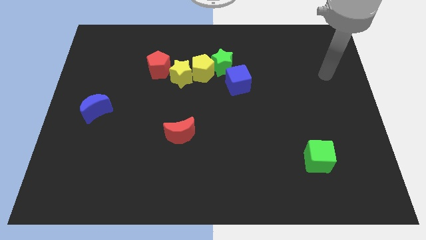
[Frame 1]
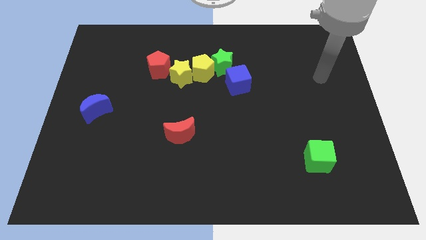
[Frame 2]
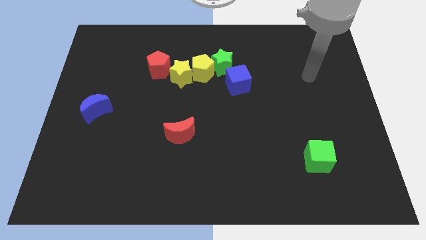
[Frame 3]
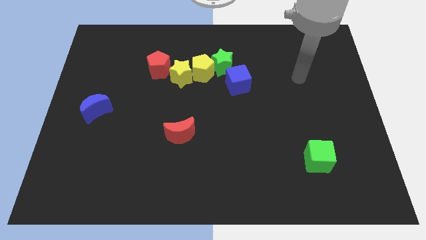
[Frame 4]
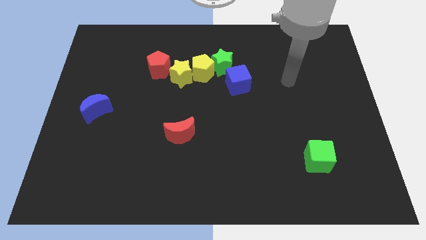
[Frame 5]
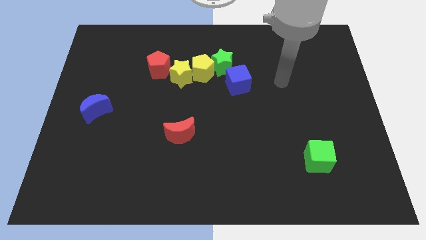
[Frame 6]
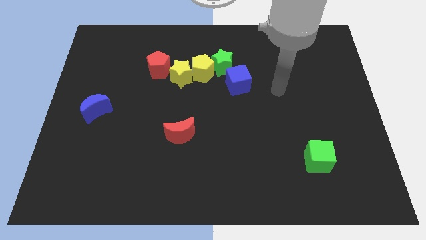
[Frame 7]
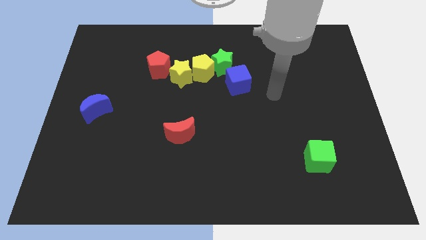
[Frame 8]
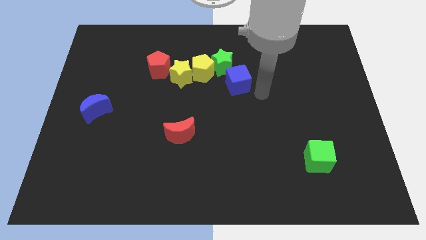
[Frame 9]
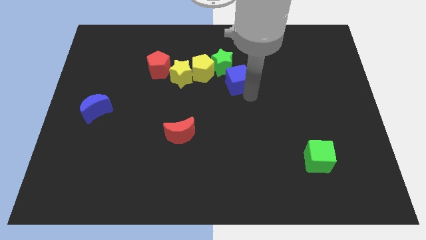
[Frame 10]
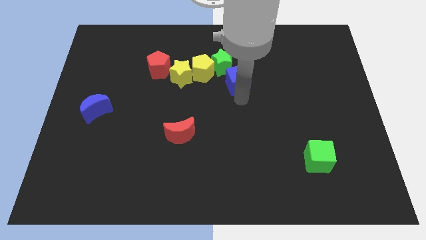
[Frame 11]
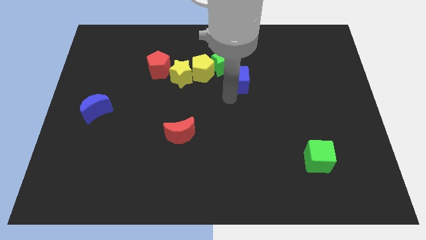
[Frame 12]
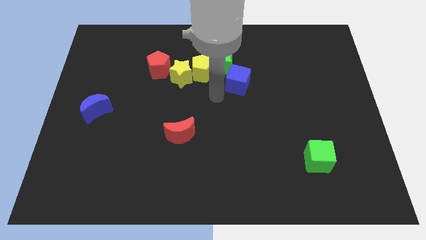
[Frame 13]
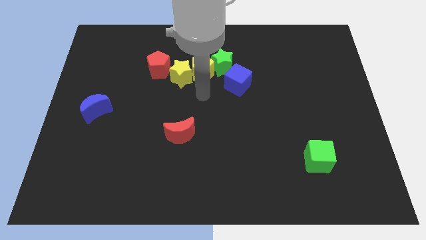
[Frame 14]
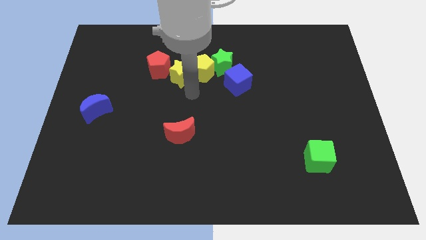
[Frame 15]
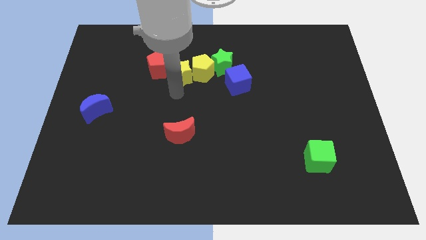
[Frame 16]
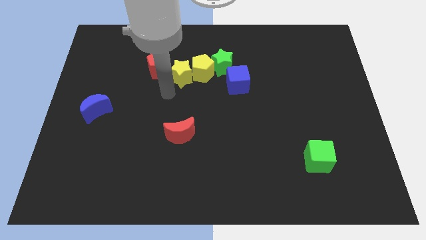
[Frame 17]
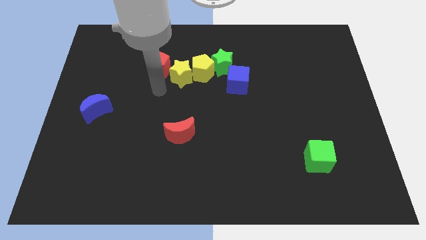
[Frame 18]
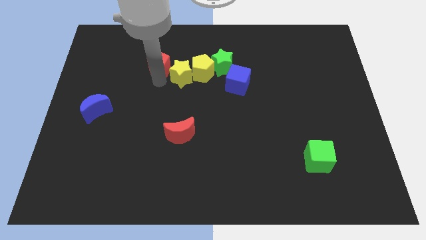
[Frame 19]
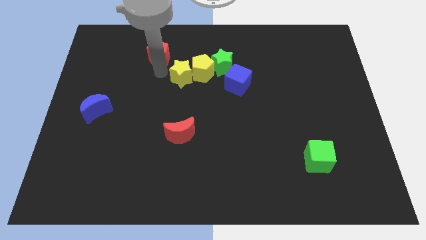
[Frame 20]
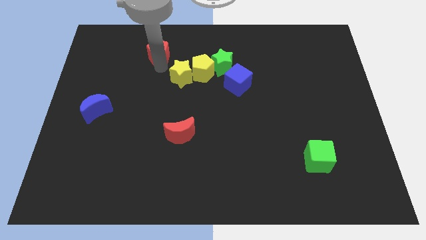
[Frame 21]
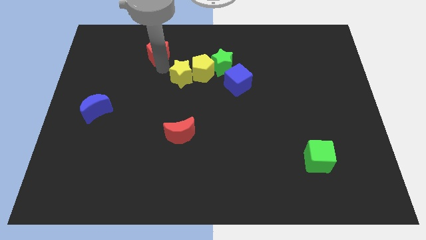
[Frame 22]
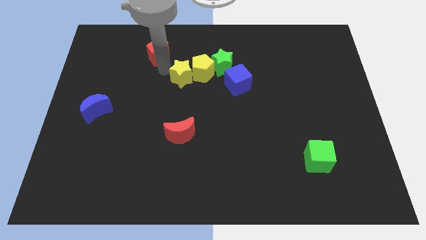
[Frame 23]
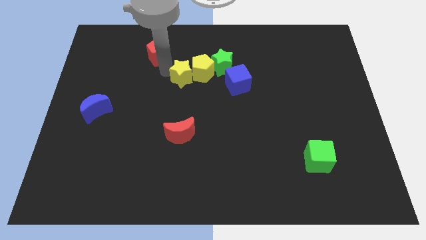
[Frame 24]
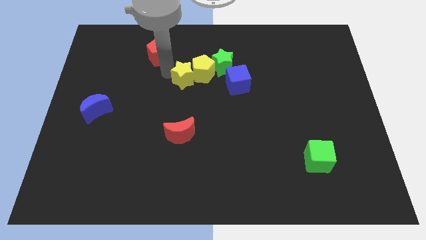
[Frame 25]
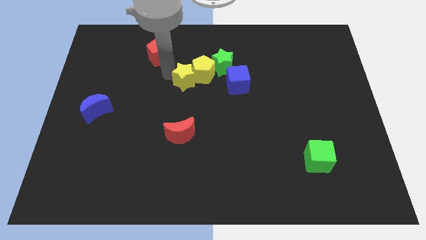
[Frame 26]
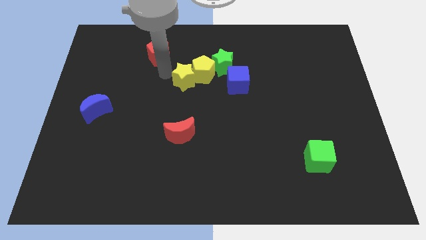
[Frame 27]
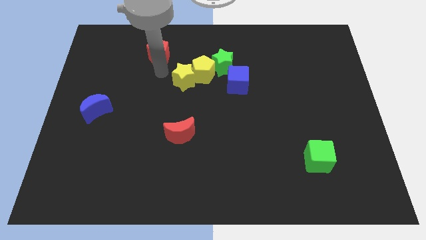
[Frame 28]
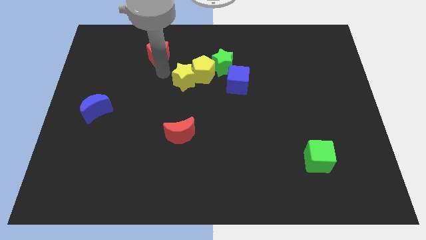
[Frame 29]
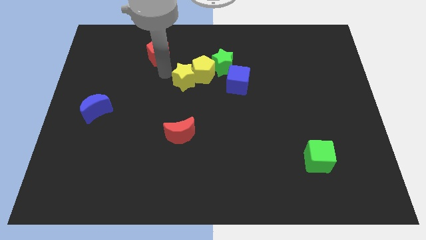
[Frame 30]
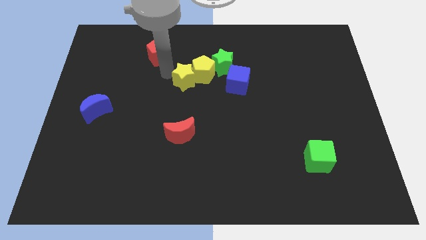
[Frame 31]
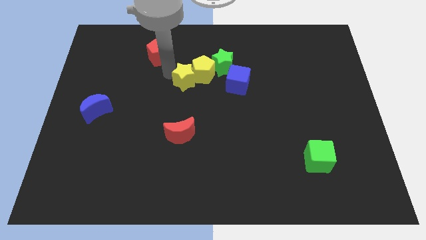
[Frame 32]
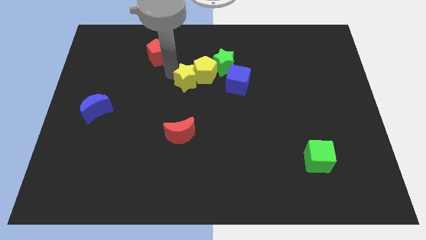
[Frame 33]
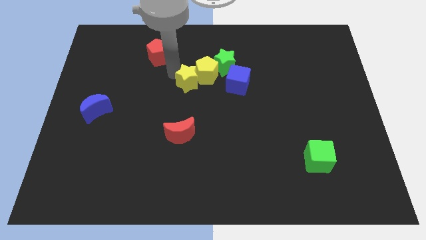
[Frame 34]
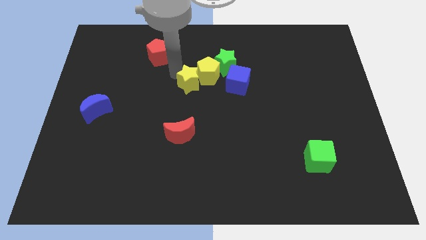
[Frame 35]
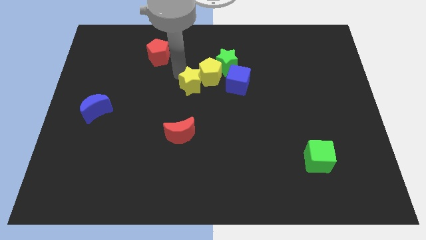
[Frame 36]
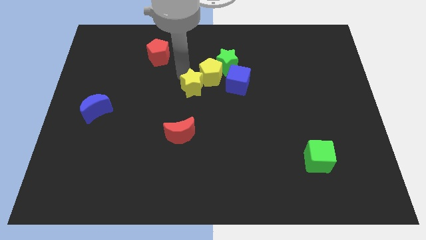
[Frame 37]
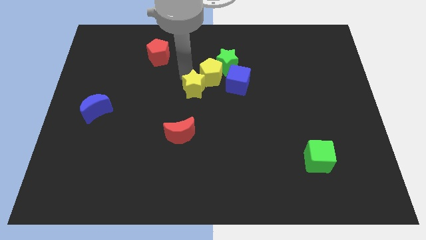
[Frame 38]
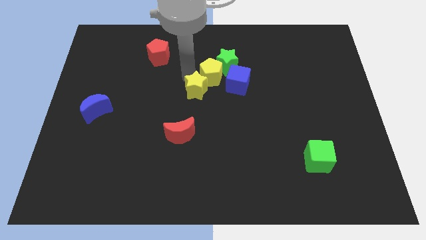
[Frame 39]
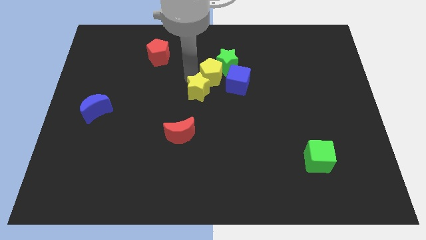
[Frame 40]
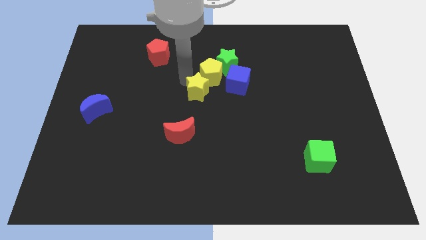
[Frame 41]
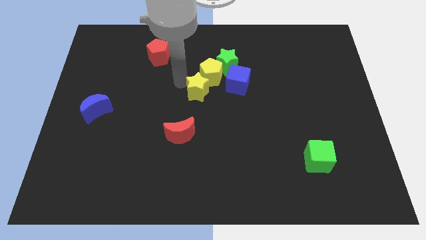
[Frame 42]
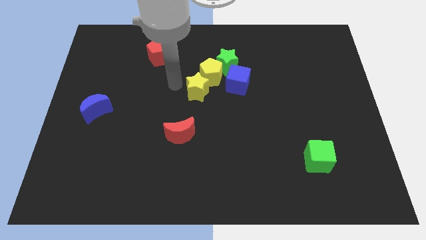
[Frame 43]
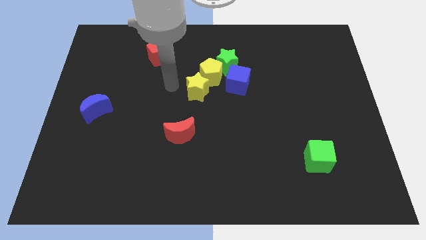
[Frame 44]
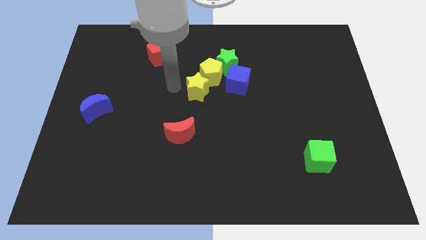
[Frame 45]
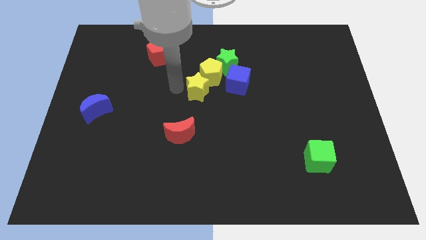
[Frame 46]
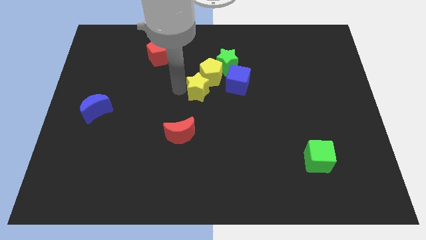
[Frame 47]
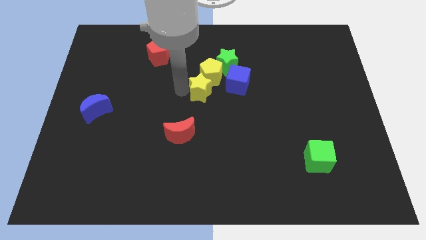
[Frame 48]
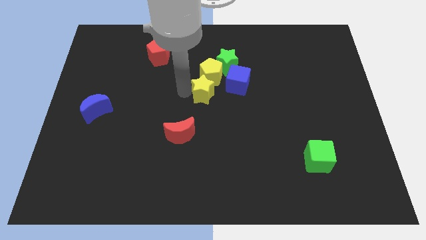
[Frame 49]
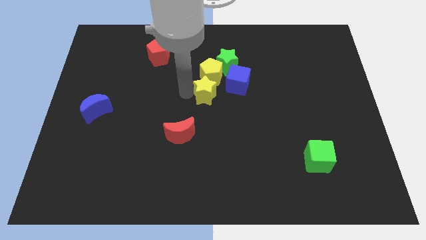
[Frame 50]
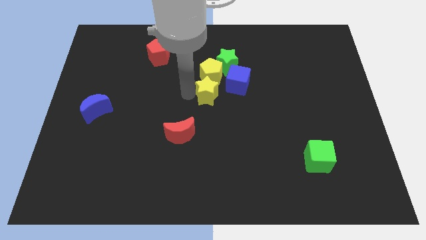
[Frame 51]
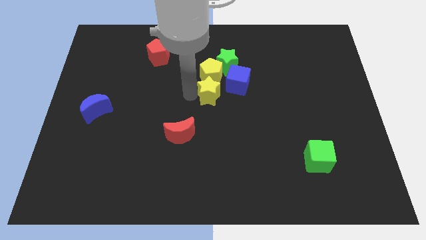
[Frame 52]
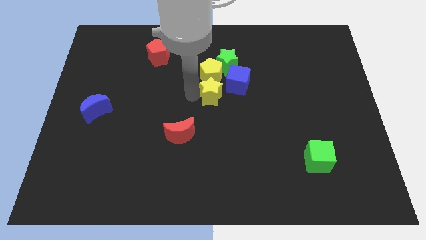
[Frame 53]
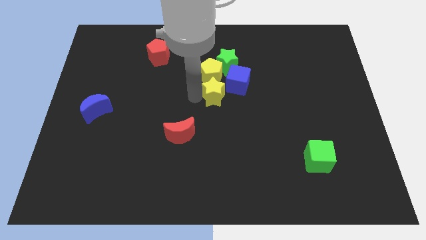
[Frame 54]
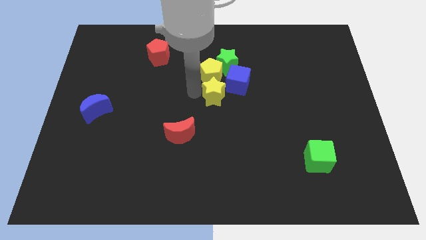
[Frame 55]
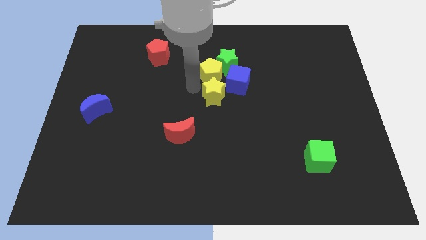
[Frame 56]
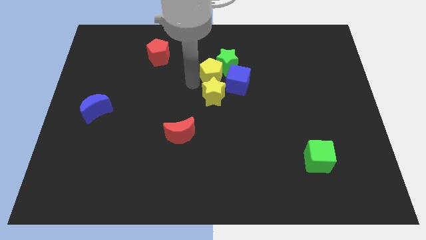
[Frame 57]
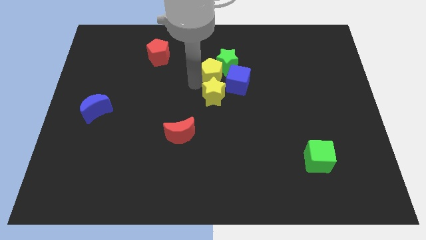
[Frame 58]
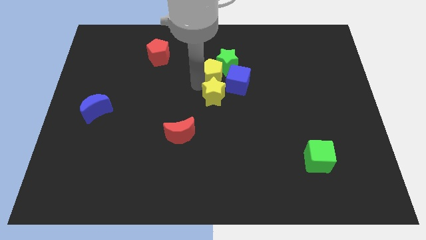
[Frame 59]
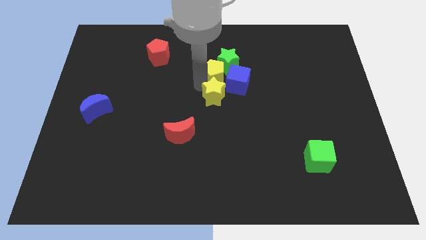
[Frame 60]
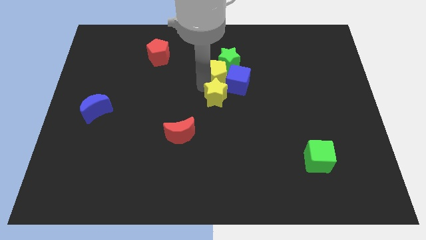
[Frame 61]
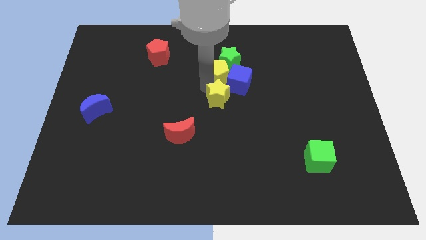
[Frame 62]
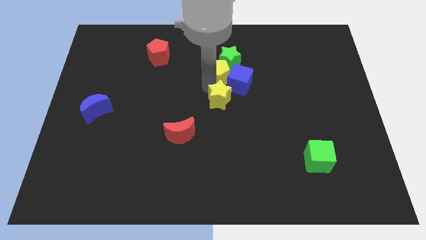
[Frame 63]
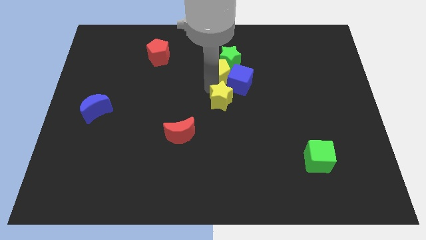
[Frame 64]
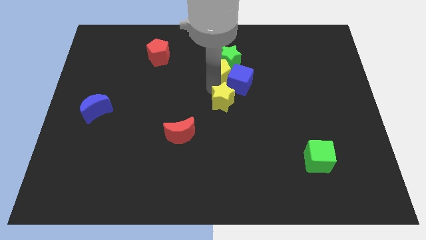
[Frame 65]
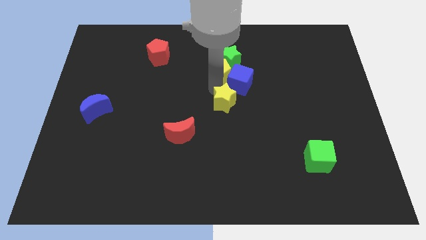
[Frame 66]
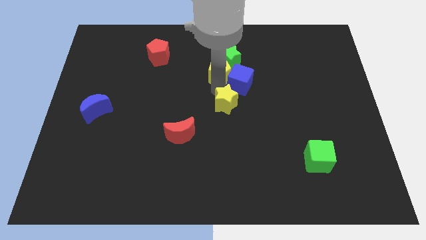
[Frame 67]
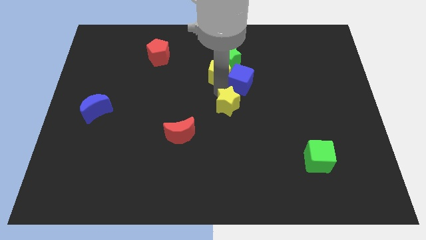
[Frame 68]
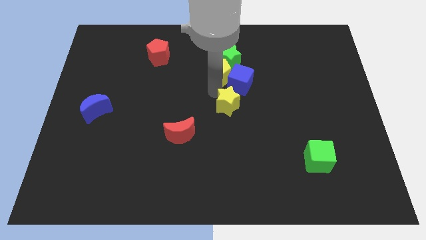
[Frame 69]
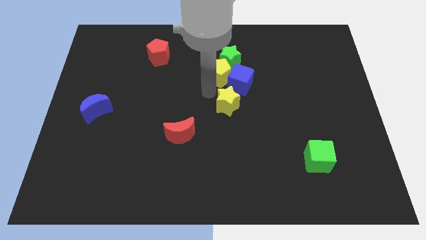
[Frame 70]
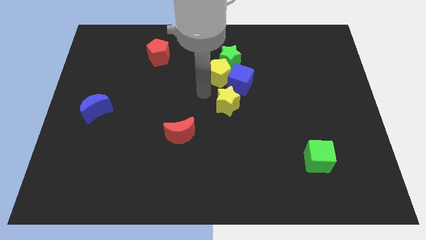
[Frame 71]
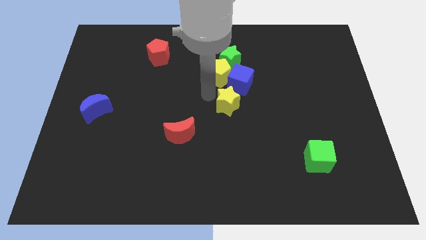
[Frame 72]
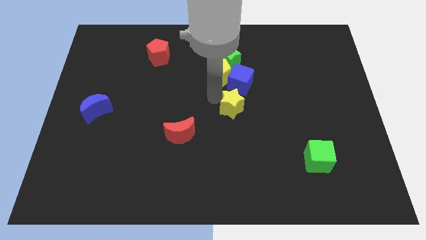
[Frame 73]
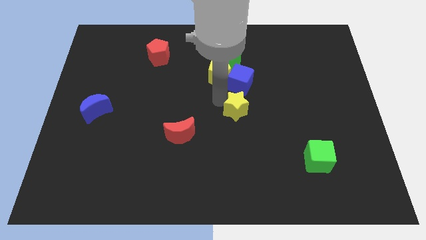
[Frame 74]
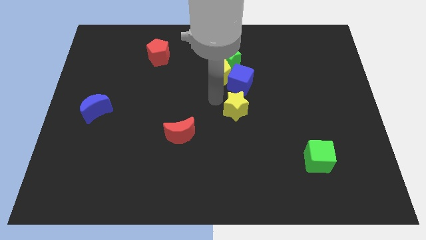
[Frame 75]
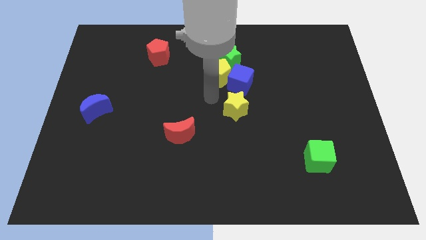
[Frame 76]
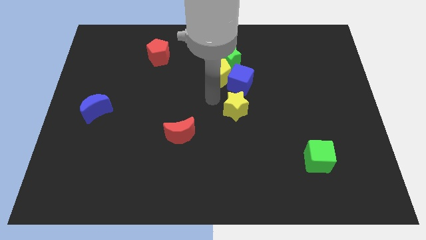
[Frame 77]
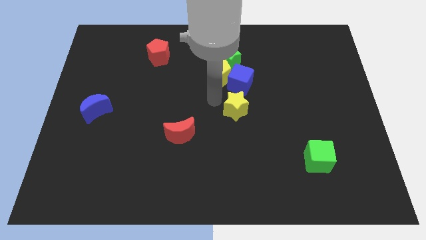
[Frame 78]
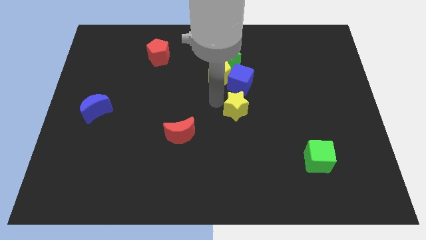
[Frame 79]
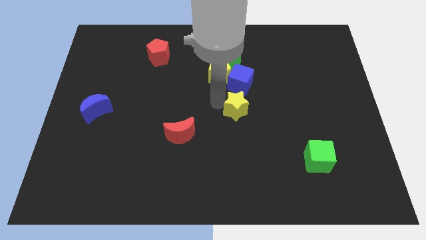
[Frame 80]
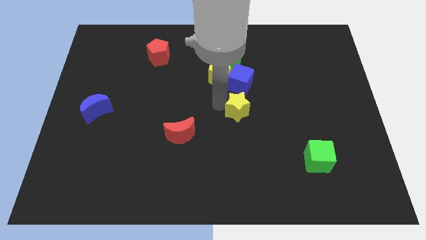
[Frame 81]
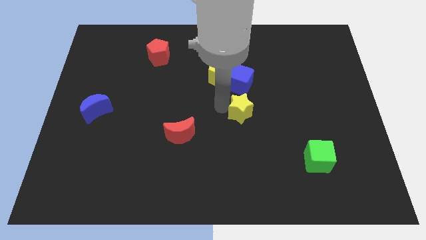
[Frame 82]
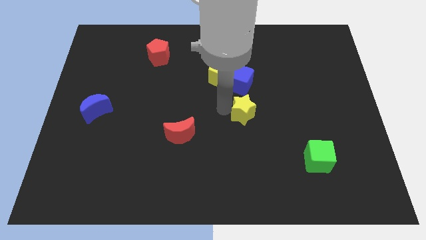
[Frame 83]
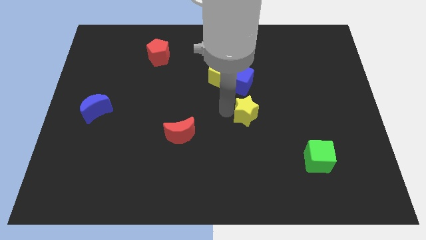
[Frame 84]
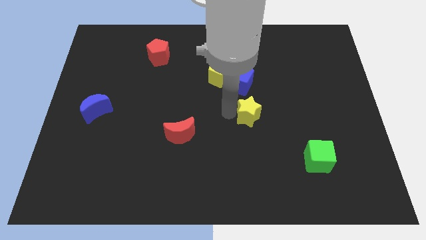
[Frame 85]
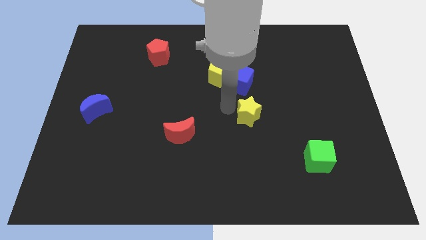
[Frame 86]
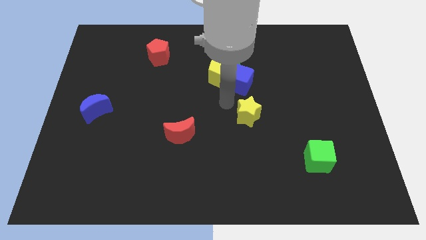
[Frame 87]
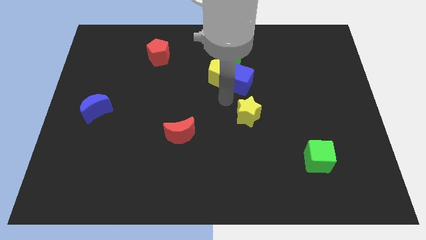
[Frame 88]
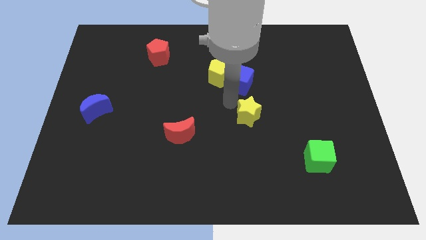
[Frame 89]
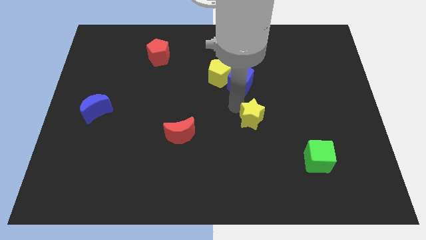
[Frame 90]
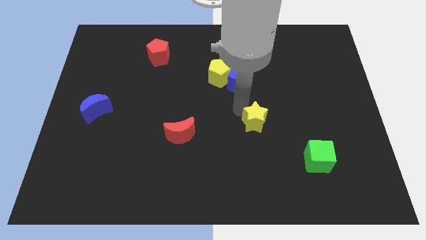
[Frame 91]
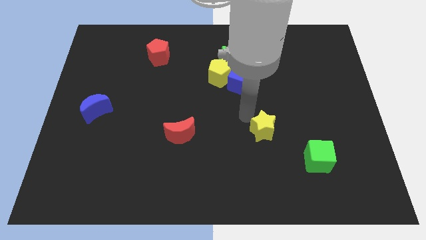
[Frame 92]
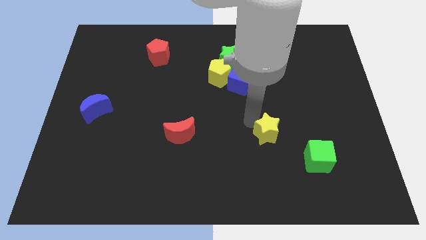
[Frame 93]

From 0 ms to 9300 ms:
put the yellow star to the top left side of the green cube
